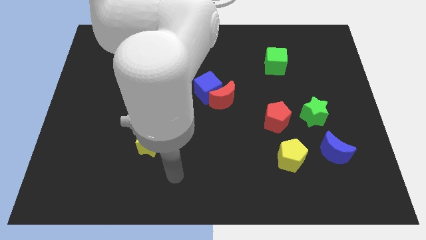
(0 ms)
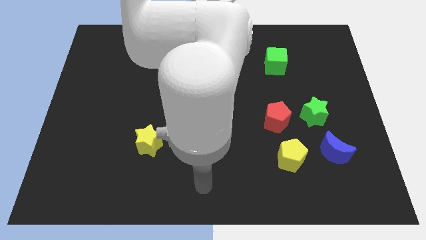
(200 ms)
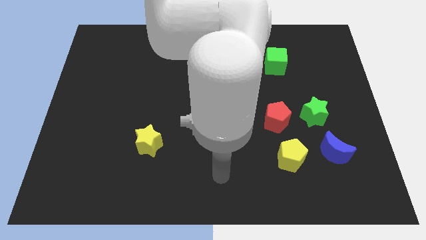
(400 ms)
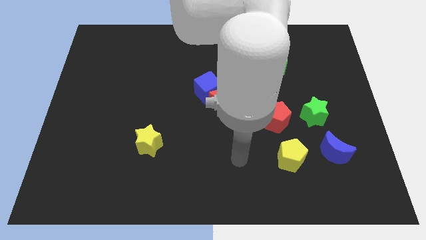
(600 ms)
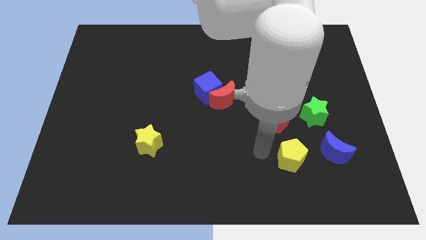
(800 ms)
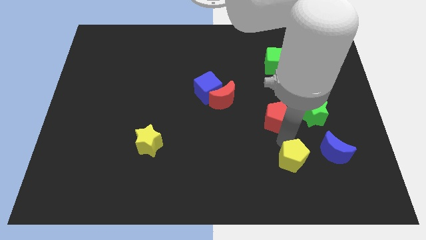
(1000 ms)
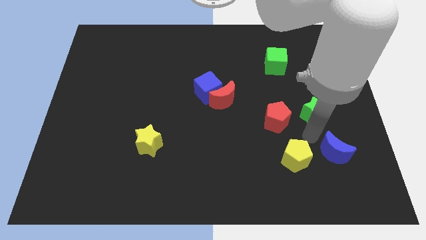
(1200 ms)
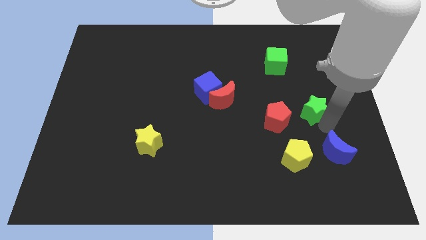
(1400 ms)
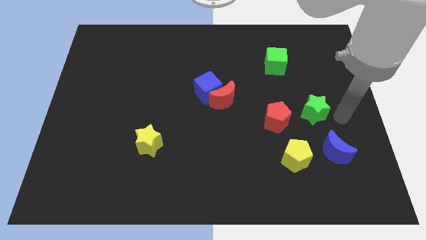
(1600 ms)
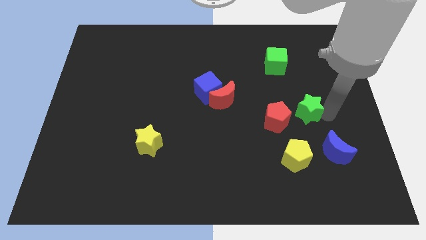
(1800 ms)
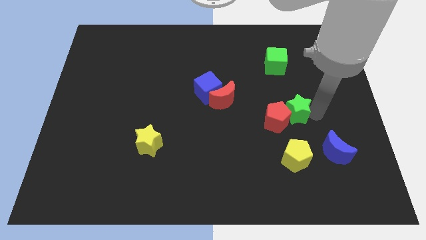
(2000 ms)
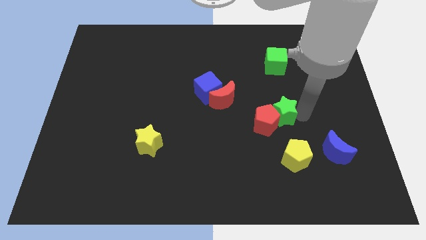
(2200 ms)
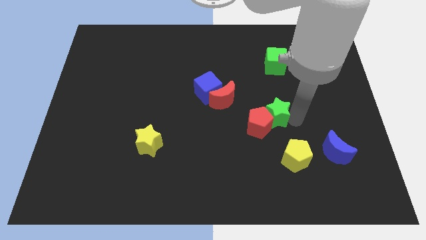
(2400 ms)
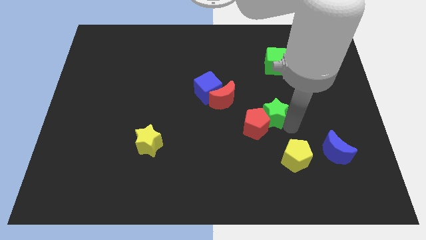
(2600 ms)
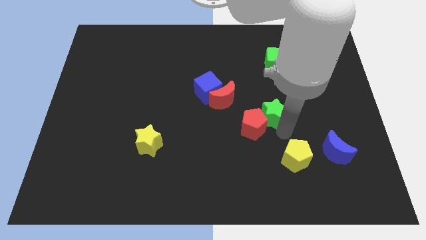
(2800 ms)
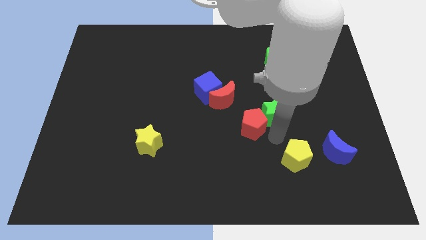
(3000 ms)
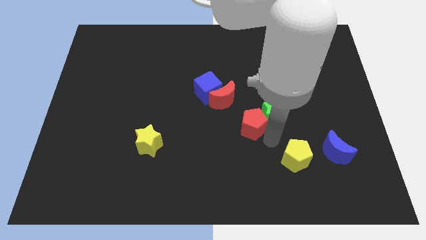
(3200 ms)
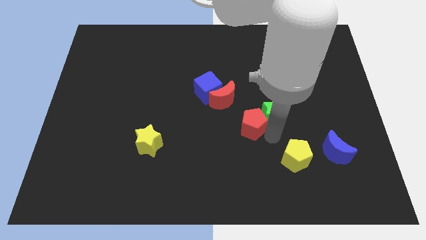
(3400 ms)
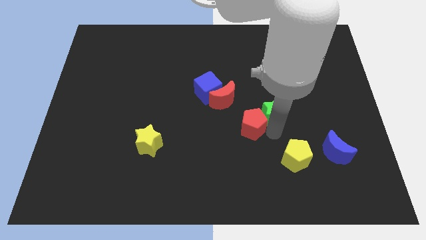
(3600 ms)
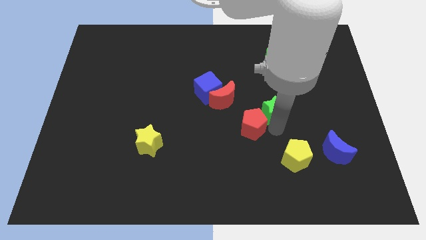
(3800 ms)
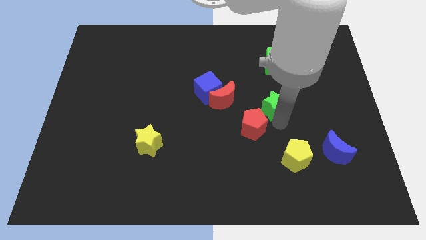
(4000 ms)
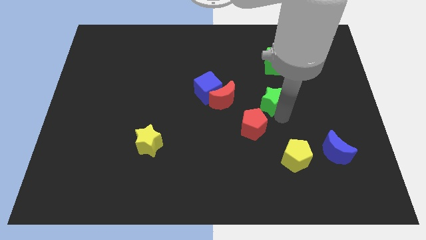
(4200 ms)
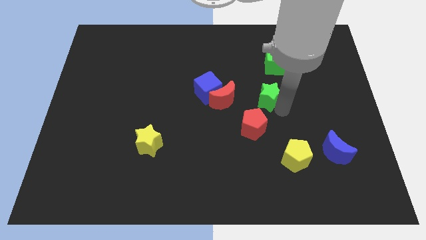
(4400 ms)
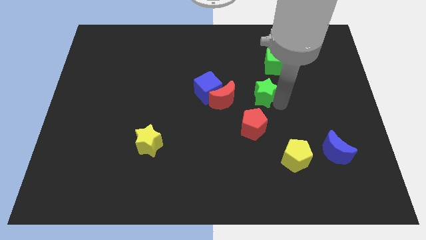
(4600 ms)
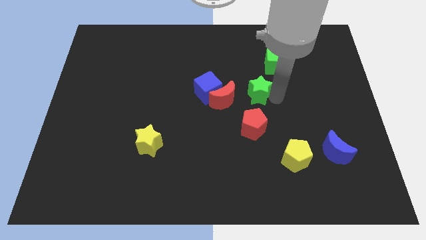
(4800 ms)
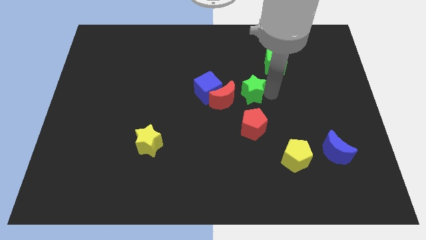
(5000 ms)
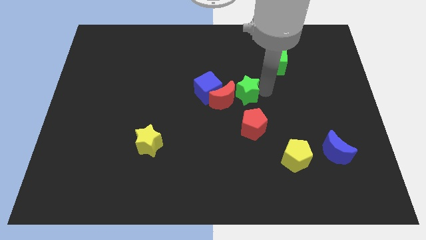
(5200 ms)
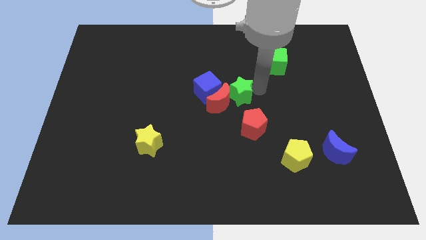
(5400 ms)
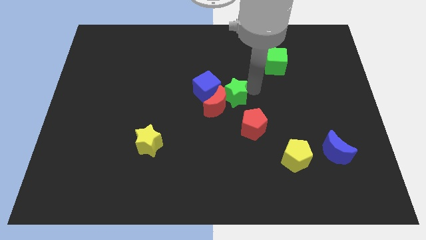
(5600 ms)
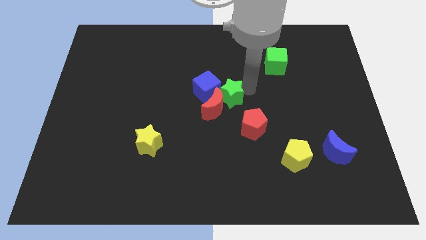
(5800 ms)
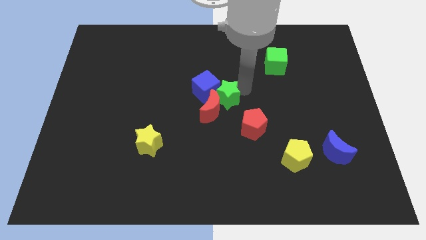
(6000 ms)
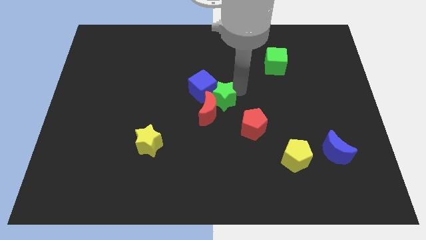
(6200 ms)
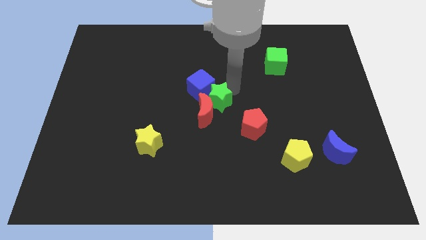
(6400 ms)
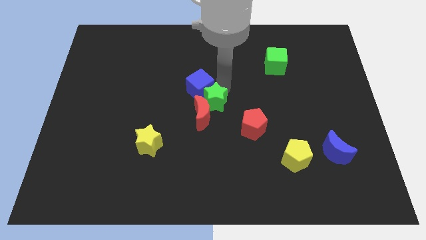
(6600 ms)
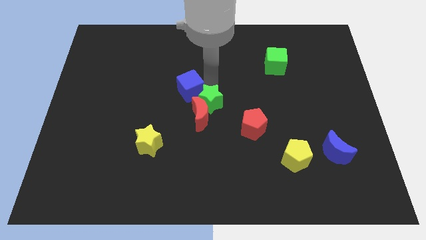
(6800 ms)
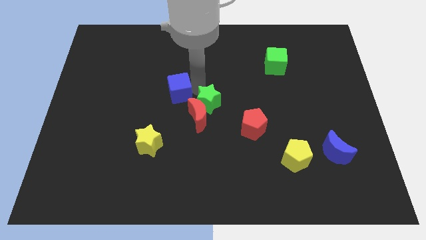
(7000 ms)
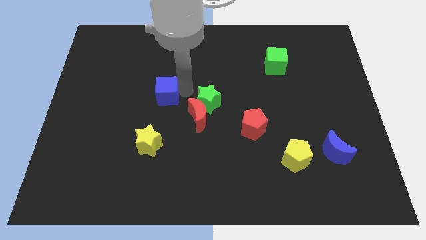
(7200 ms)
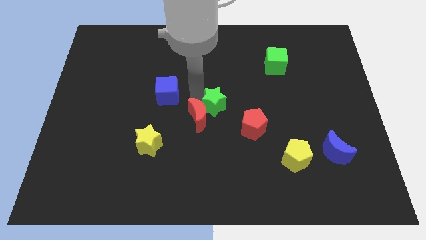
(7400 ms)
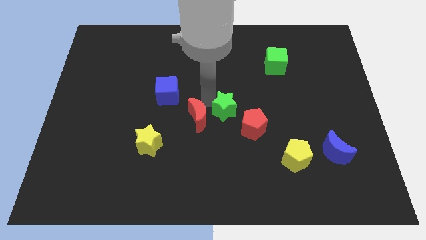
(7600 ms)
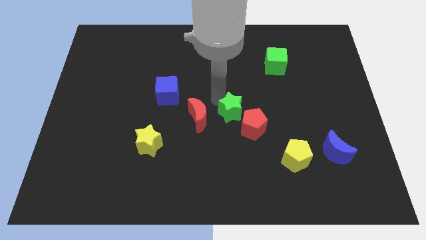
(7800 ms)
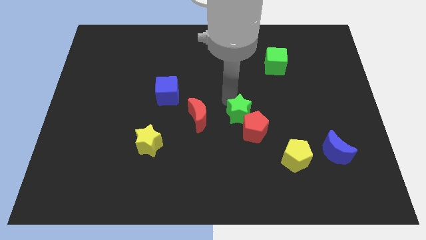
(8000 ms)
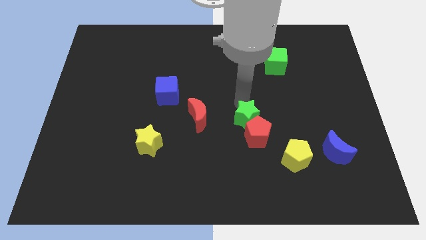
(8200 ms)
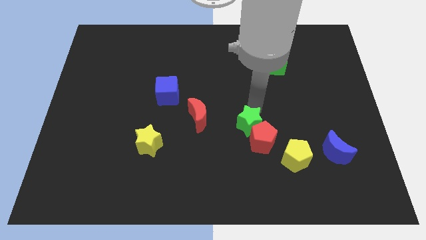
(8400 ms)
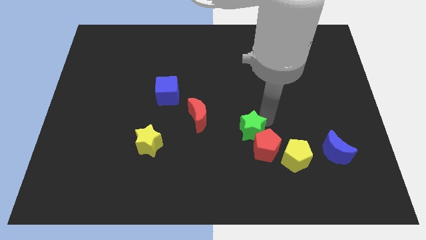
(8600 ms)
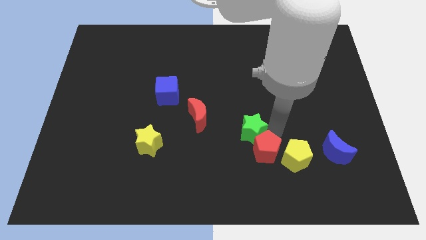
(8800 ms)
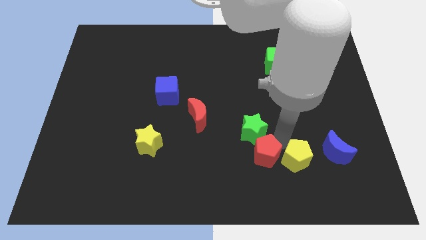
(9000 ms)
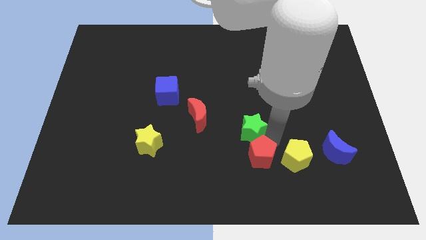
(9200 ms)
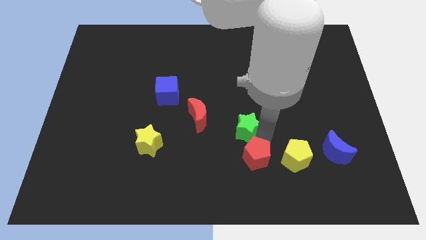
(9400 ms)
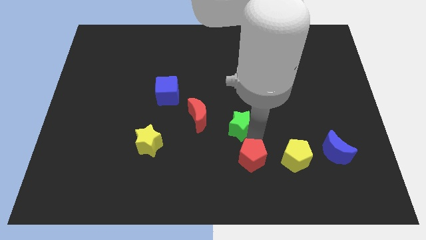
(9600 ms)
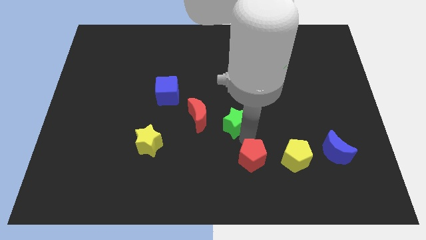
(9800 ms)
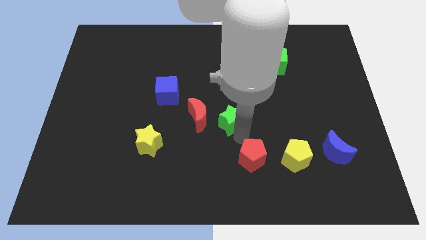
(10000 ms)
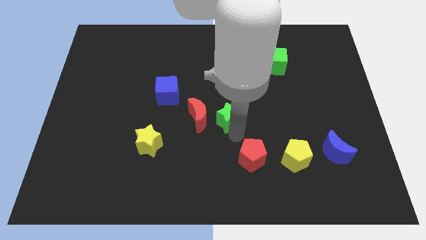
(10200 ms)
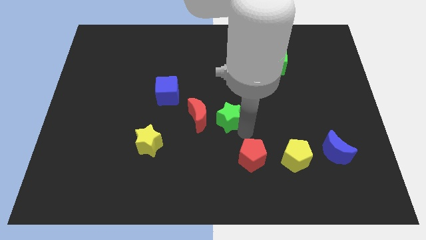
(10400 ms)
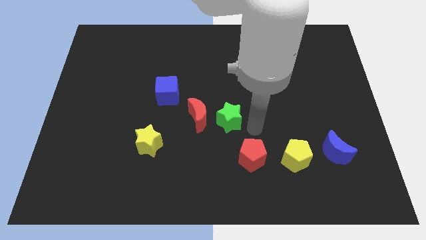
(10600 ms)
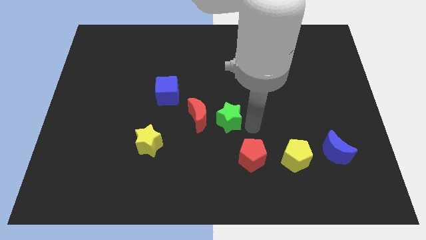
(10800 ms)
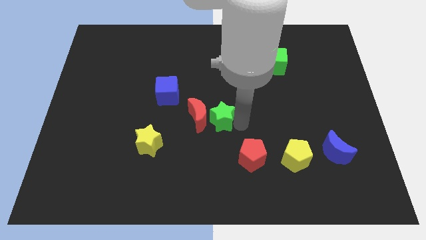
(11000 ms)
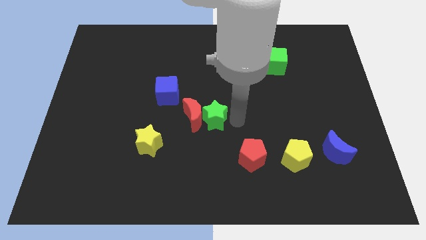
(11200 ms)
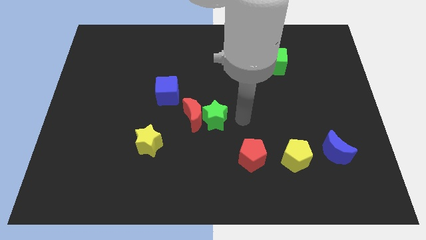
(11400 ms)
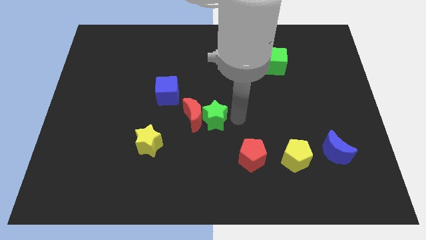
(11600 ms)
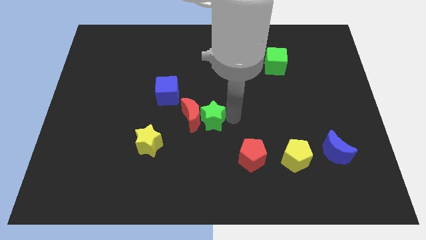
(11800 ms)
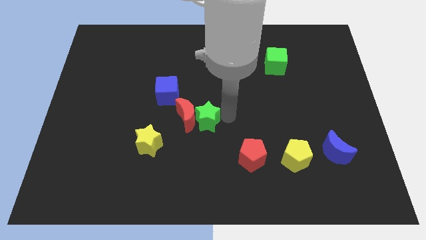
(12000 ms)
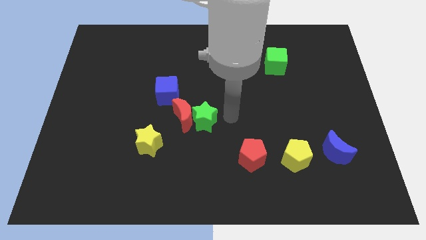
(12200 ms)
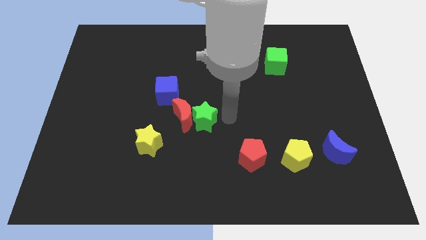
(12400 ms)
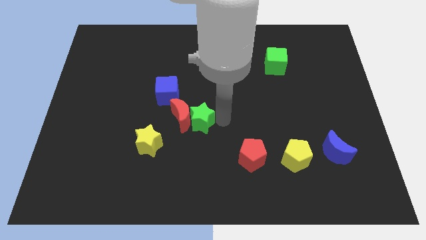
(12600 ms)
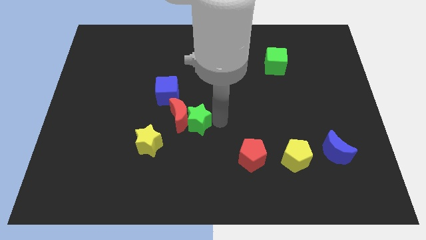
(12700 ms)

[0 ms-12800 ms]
put the green star to the top right of the yellow star
